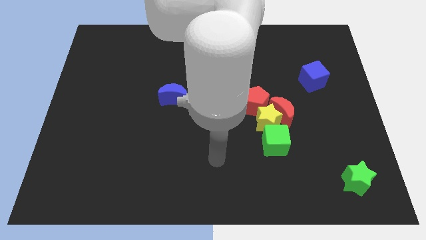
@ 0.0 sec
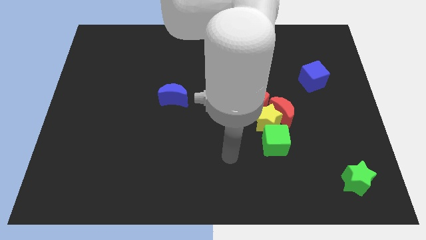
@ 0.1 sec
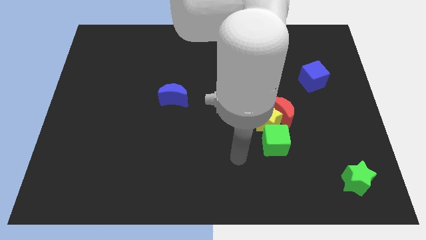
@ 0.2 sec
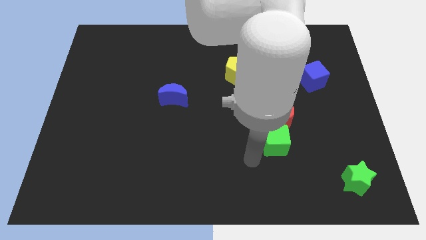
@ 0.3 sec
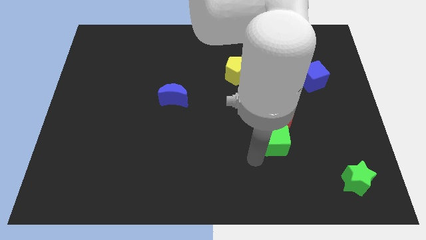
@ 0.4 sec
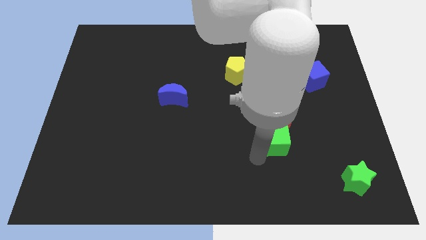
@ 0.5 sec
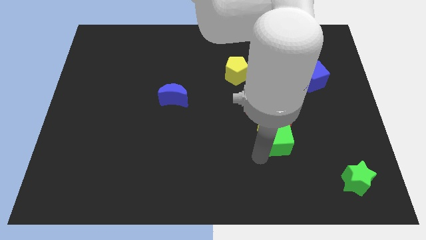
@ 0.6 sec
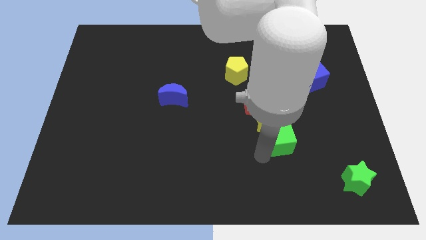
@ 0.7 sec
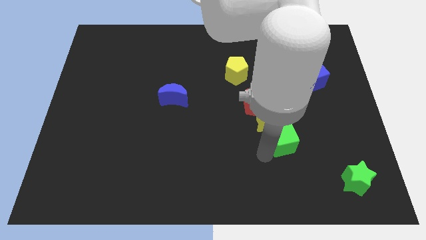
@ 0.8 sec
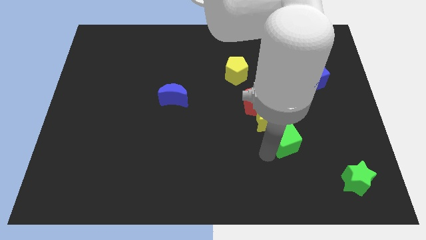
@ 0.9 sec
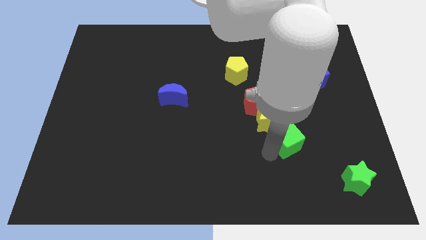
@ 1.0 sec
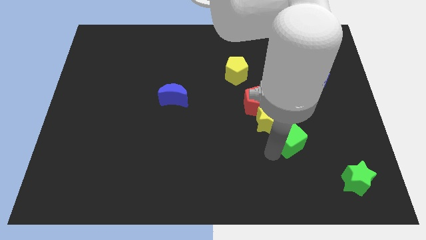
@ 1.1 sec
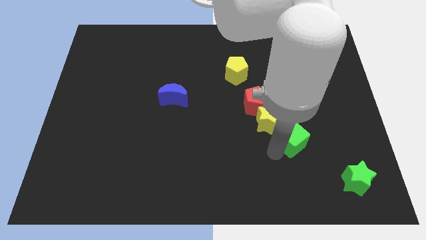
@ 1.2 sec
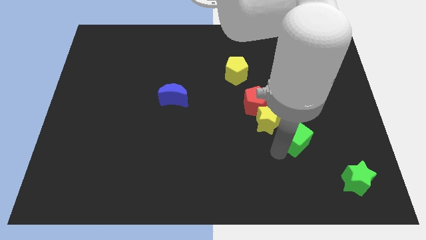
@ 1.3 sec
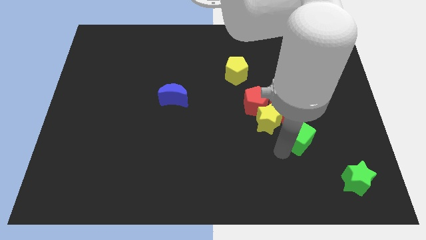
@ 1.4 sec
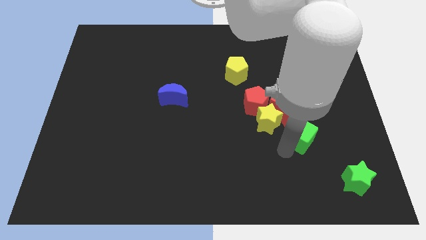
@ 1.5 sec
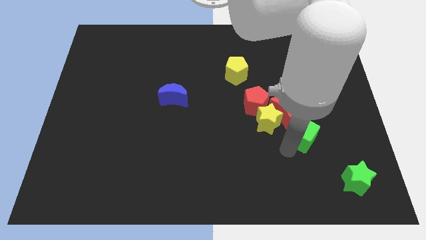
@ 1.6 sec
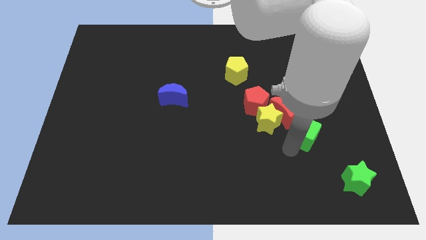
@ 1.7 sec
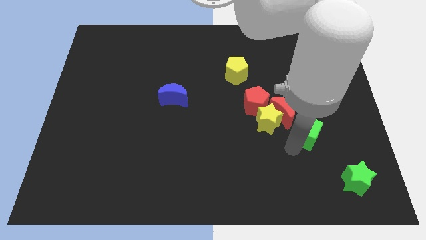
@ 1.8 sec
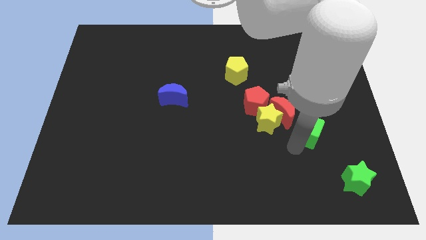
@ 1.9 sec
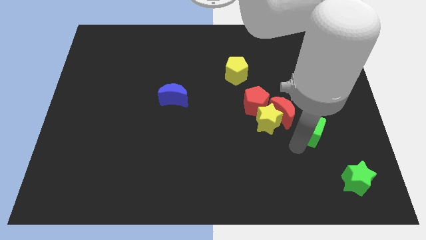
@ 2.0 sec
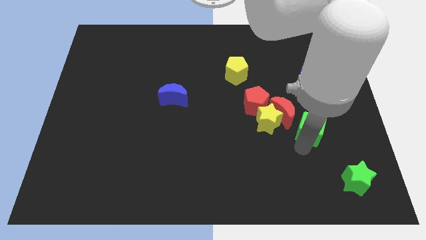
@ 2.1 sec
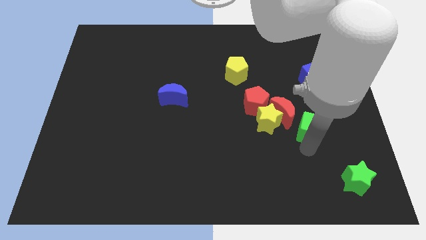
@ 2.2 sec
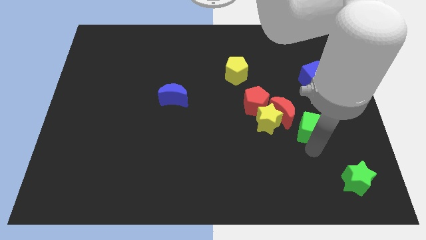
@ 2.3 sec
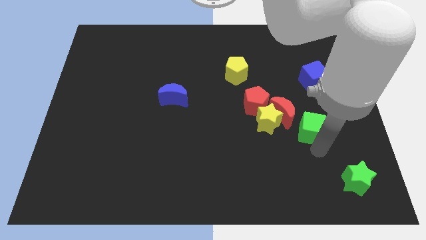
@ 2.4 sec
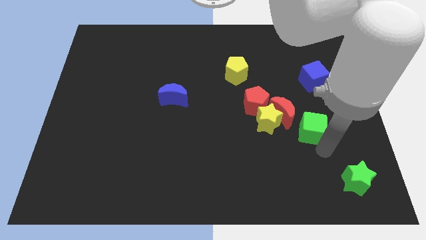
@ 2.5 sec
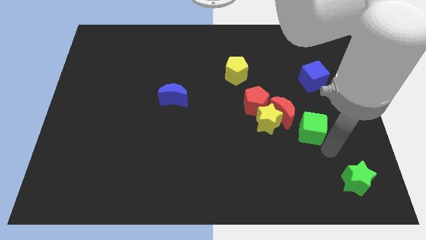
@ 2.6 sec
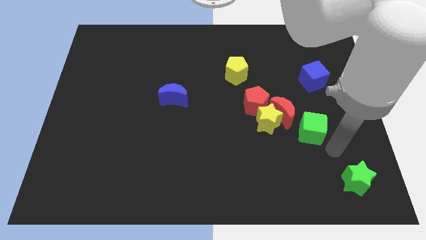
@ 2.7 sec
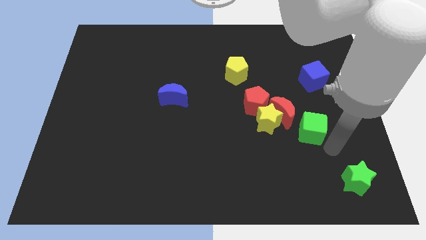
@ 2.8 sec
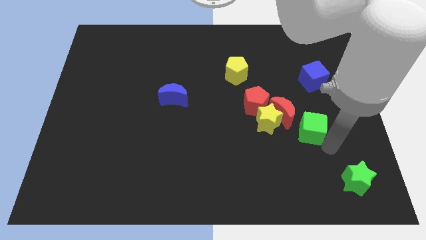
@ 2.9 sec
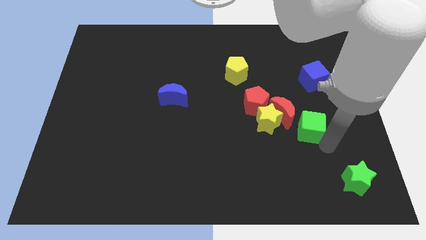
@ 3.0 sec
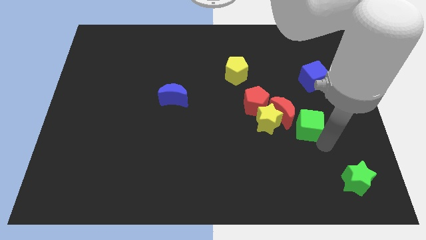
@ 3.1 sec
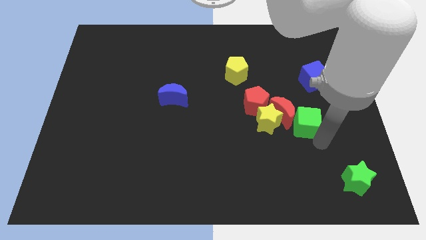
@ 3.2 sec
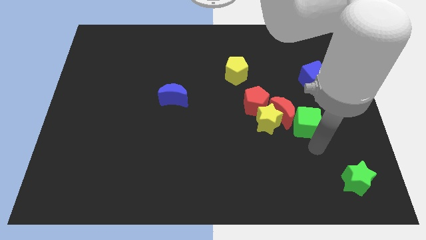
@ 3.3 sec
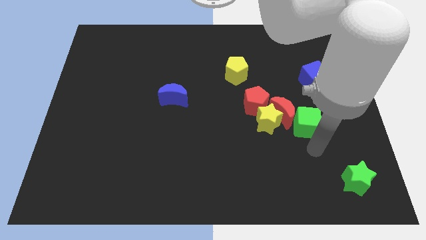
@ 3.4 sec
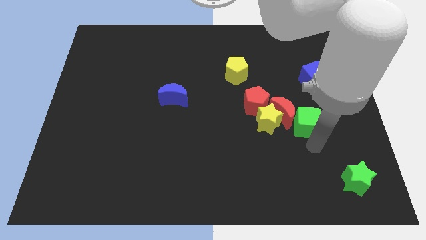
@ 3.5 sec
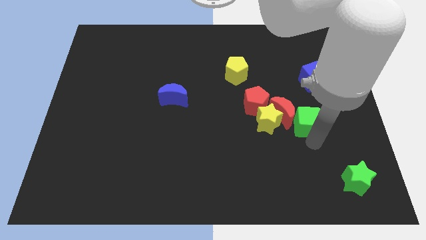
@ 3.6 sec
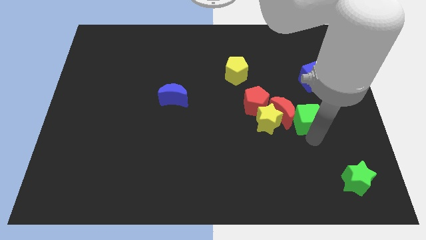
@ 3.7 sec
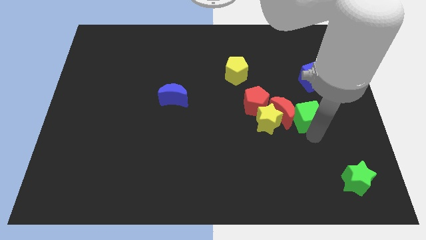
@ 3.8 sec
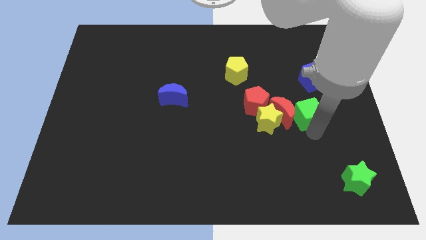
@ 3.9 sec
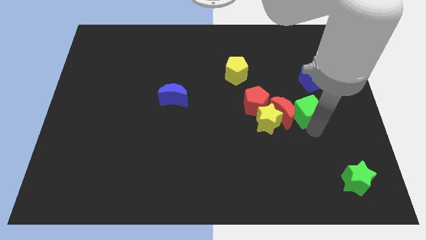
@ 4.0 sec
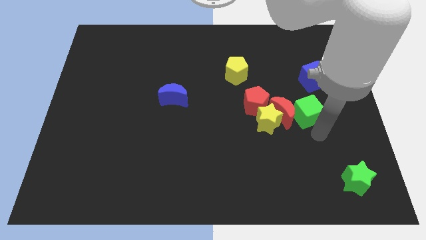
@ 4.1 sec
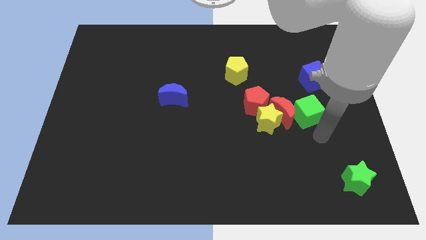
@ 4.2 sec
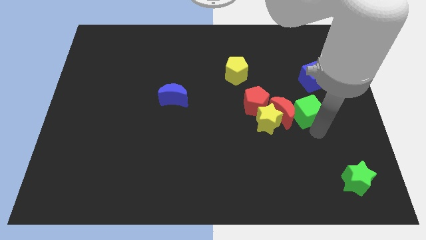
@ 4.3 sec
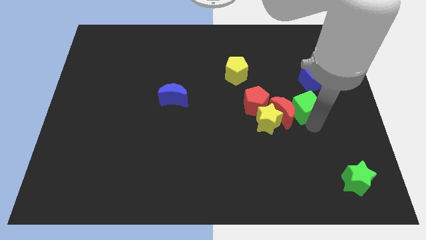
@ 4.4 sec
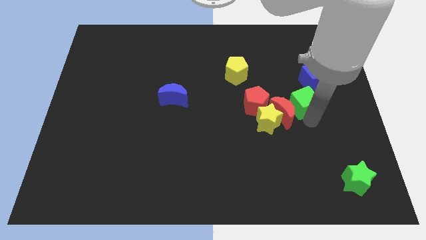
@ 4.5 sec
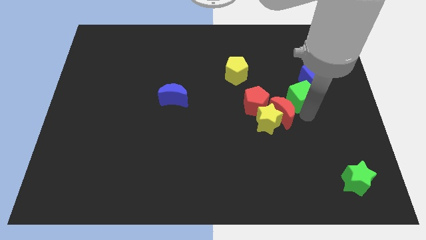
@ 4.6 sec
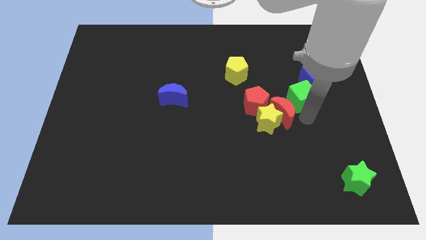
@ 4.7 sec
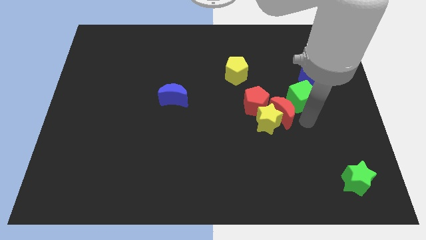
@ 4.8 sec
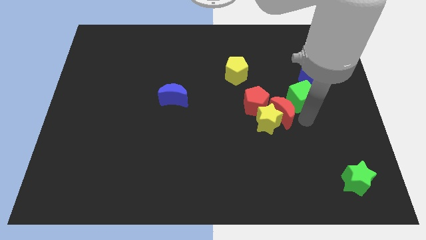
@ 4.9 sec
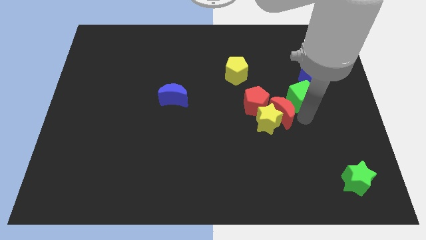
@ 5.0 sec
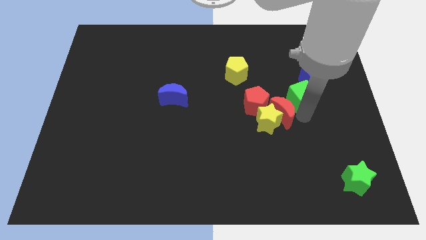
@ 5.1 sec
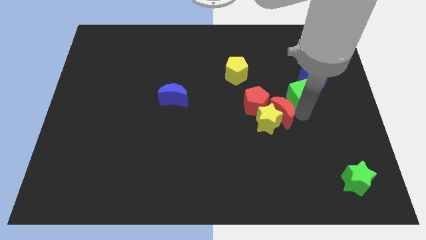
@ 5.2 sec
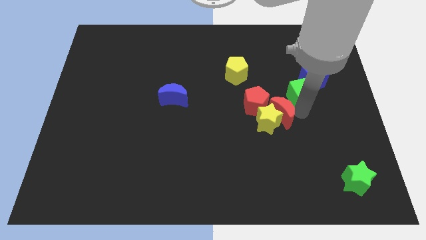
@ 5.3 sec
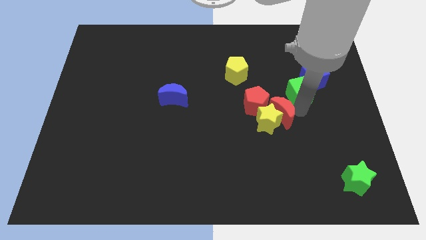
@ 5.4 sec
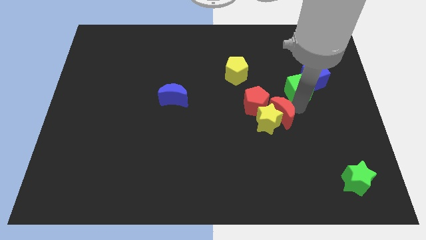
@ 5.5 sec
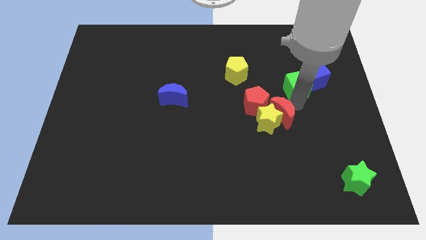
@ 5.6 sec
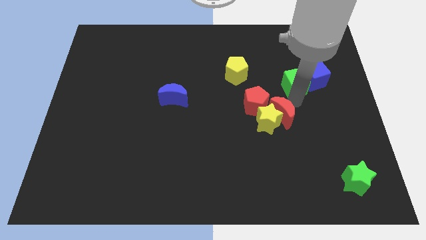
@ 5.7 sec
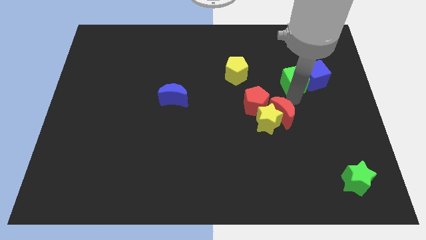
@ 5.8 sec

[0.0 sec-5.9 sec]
slide the green cube diagonally up and to the left of the blue cube

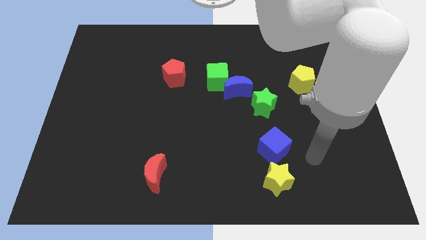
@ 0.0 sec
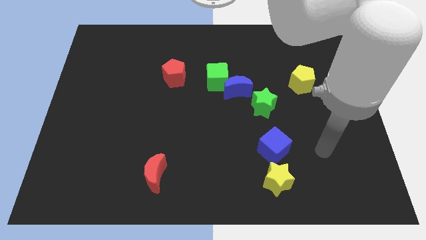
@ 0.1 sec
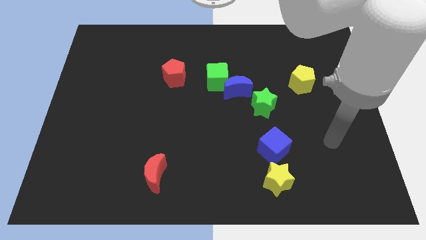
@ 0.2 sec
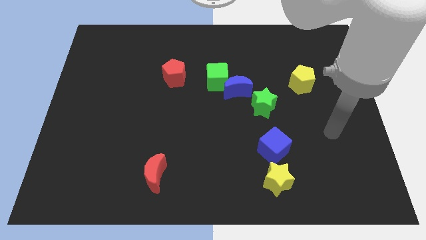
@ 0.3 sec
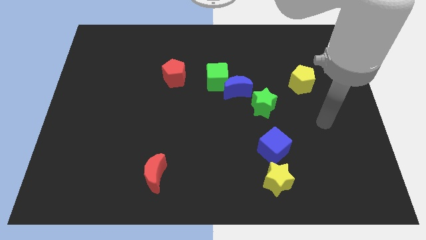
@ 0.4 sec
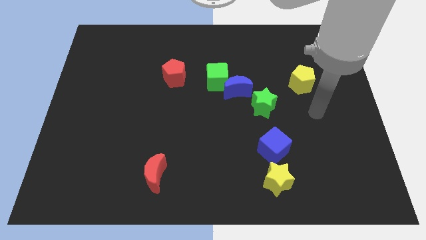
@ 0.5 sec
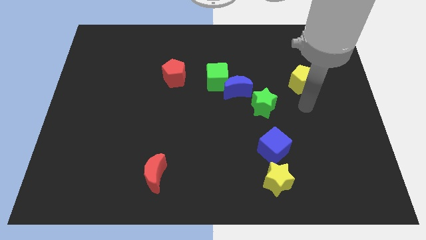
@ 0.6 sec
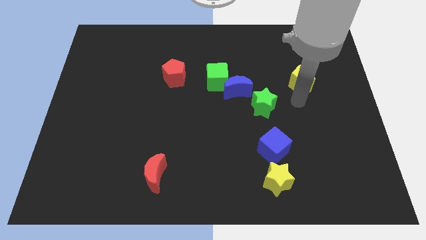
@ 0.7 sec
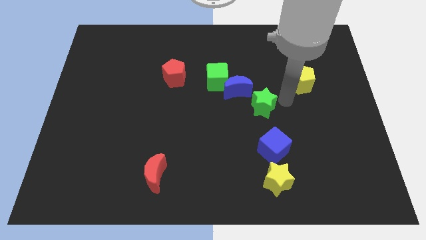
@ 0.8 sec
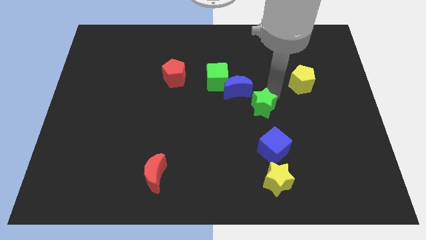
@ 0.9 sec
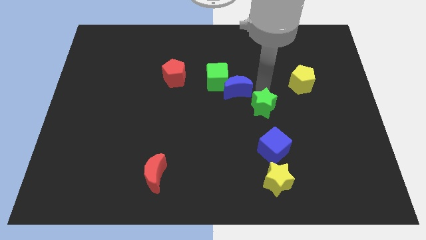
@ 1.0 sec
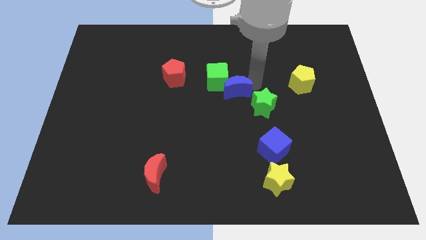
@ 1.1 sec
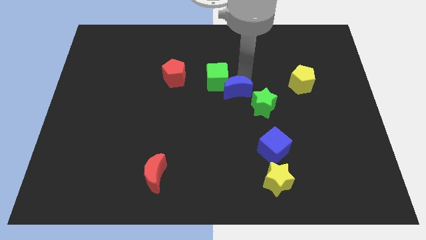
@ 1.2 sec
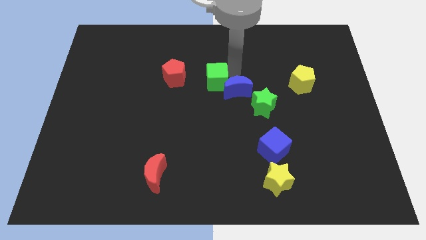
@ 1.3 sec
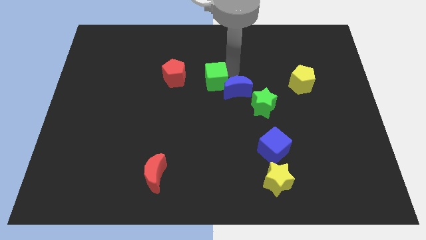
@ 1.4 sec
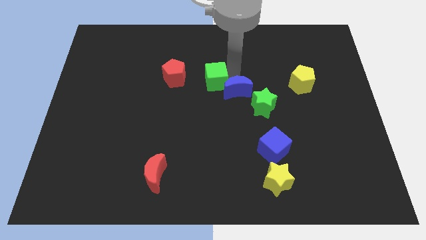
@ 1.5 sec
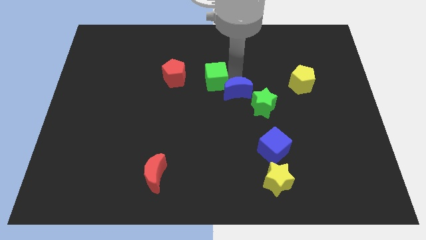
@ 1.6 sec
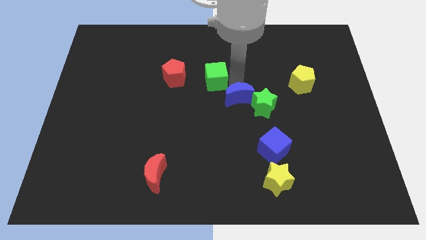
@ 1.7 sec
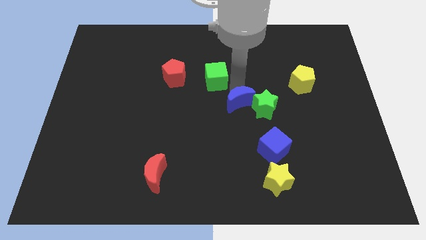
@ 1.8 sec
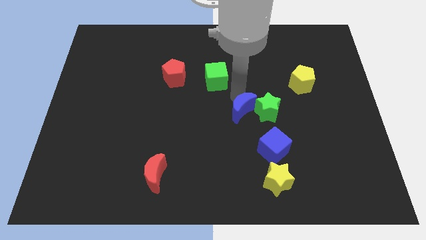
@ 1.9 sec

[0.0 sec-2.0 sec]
move the blue moon to the top left of the blue cube
